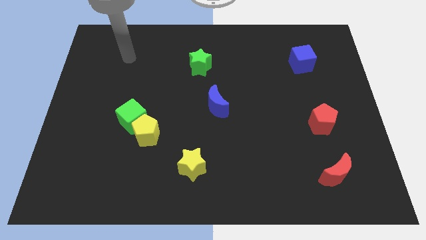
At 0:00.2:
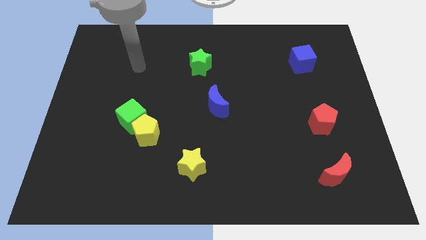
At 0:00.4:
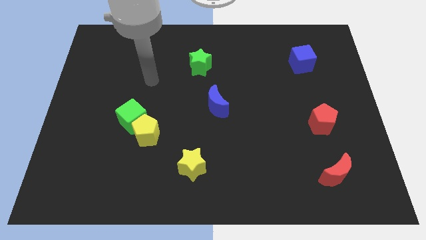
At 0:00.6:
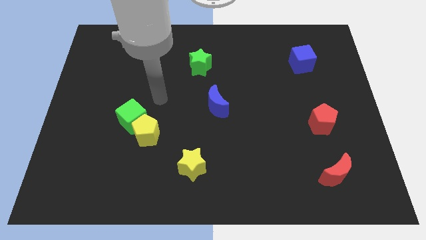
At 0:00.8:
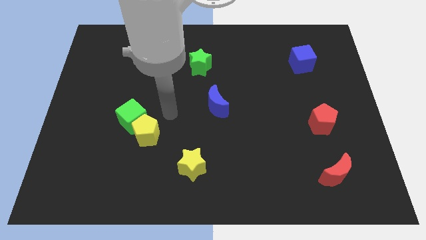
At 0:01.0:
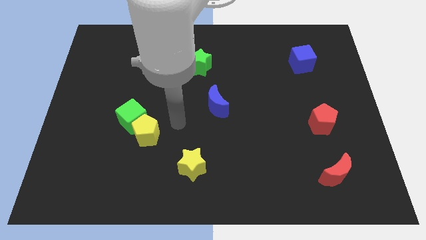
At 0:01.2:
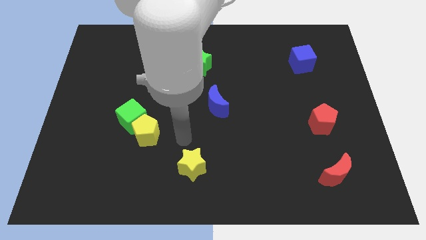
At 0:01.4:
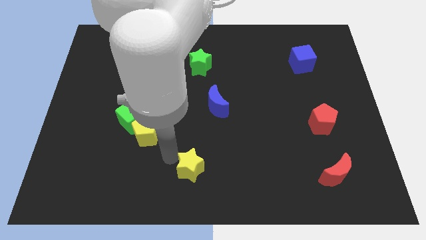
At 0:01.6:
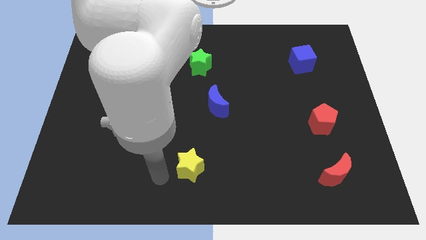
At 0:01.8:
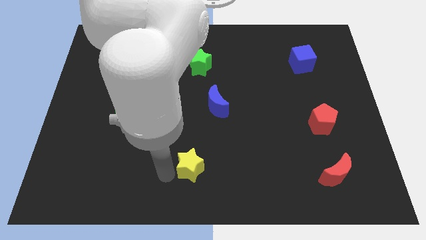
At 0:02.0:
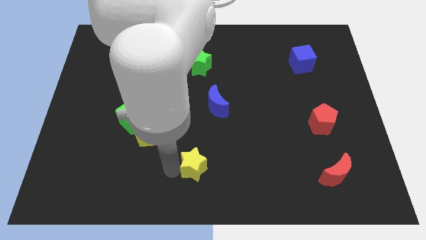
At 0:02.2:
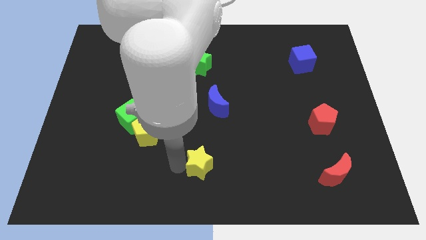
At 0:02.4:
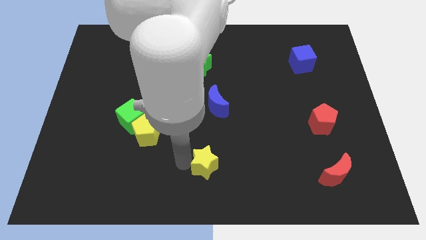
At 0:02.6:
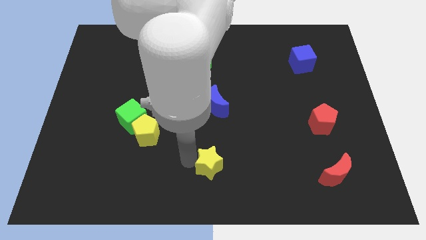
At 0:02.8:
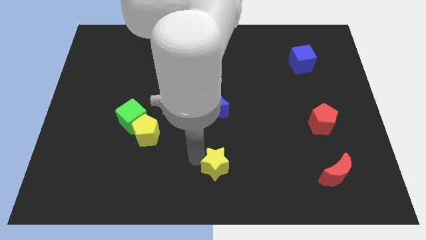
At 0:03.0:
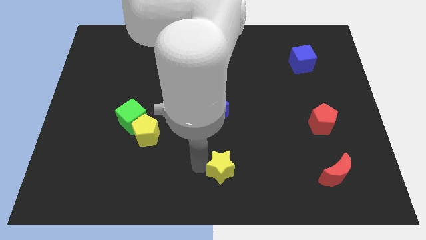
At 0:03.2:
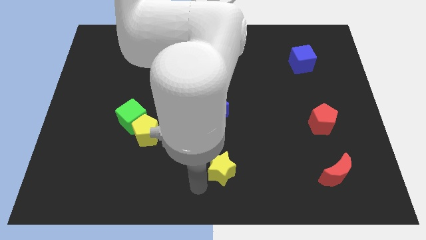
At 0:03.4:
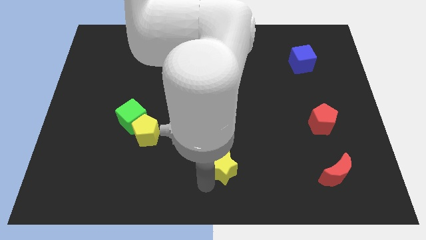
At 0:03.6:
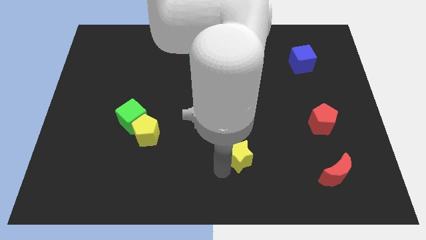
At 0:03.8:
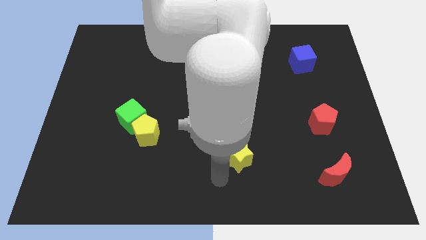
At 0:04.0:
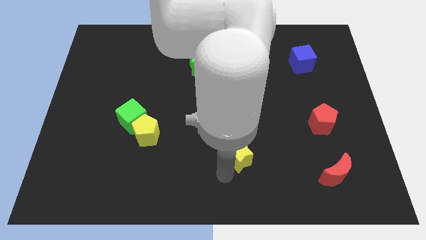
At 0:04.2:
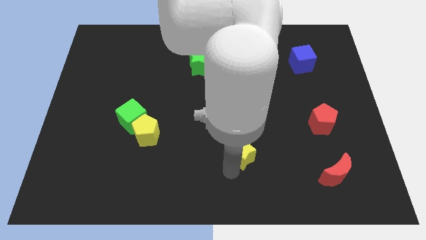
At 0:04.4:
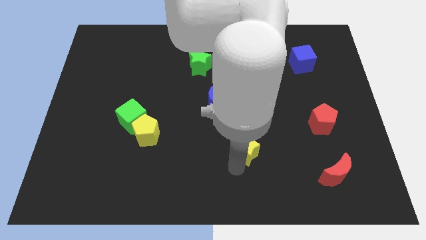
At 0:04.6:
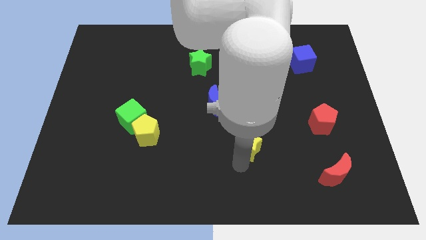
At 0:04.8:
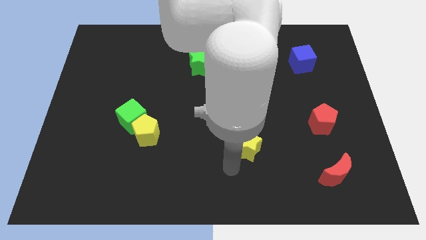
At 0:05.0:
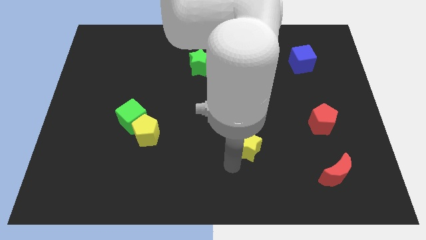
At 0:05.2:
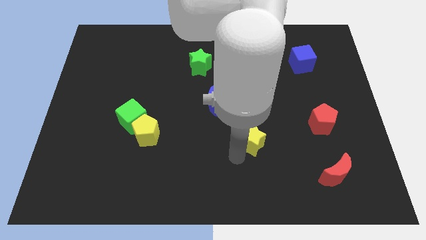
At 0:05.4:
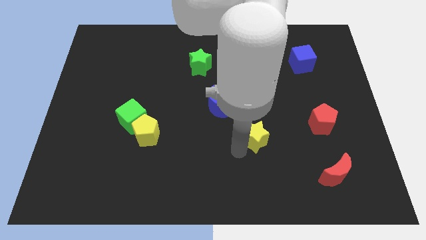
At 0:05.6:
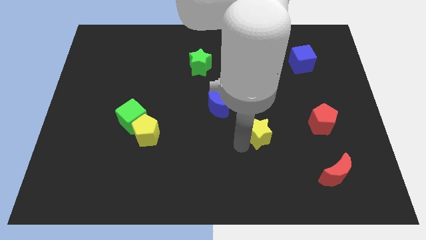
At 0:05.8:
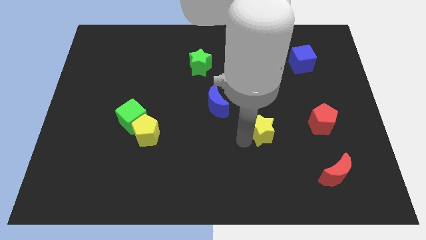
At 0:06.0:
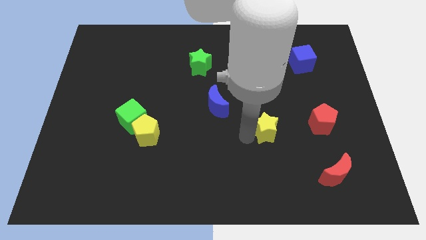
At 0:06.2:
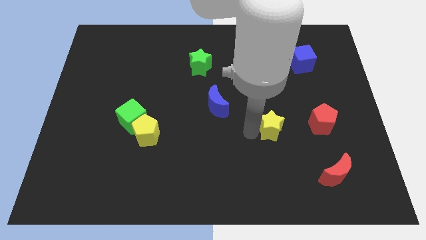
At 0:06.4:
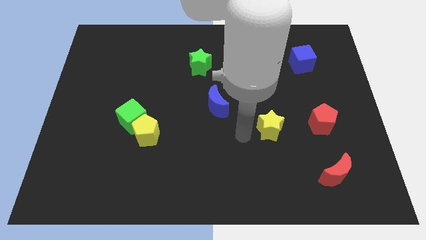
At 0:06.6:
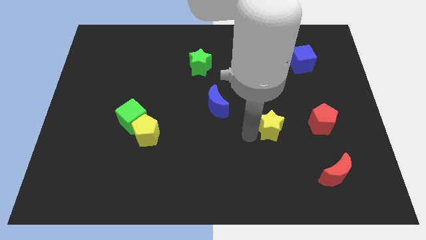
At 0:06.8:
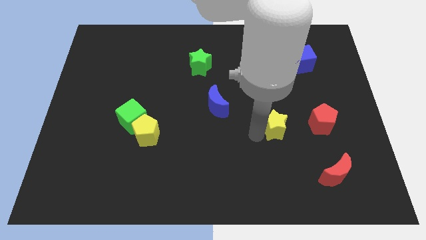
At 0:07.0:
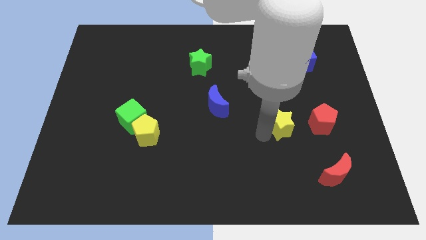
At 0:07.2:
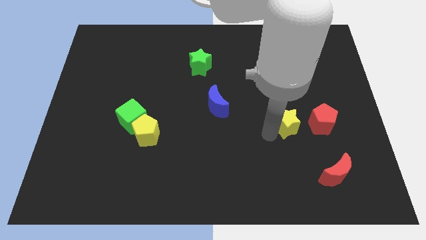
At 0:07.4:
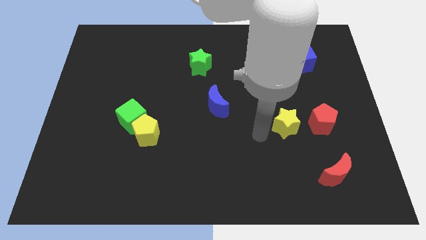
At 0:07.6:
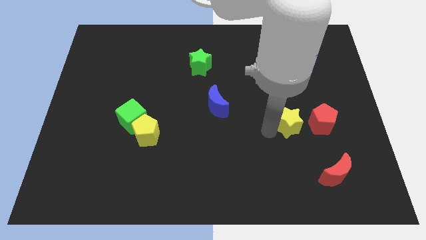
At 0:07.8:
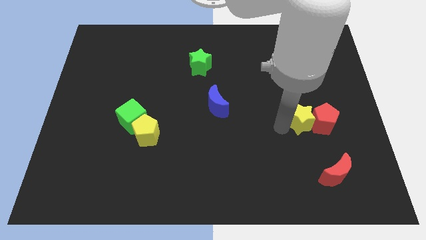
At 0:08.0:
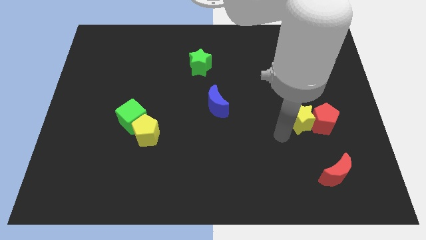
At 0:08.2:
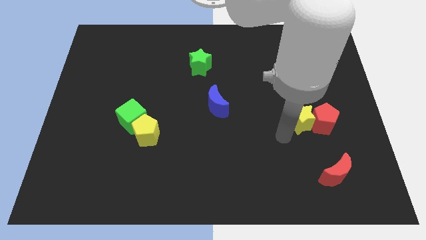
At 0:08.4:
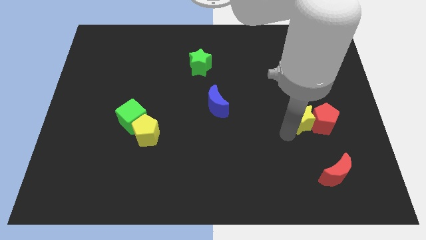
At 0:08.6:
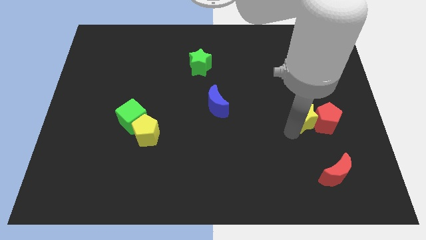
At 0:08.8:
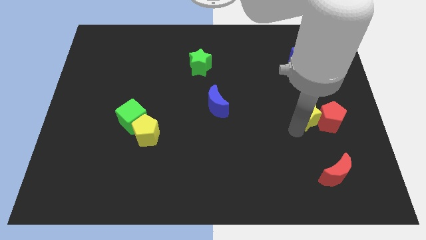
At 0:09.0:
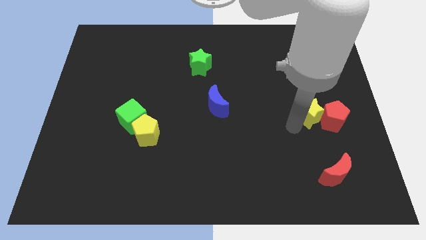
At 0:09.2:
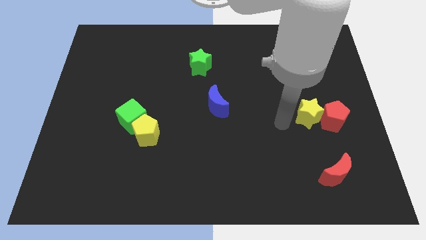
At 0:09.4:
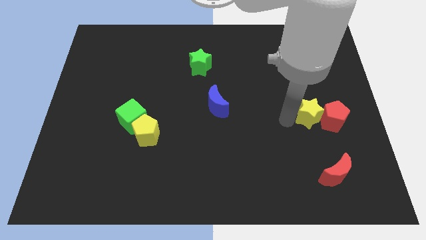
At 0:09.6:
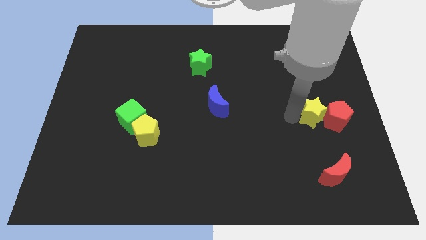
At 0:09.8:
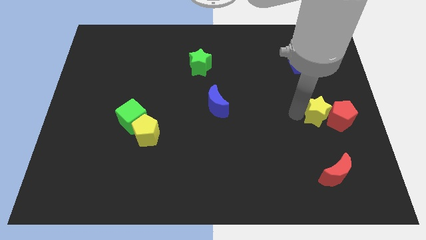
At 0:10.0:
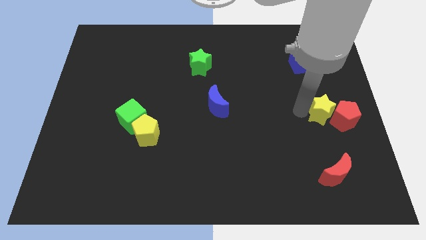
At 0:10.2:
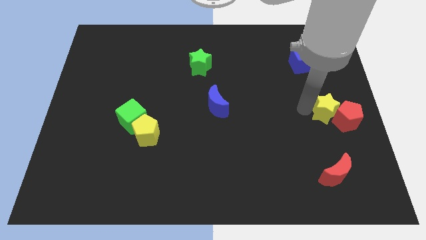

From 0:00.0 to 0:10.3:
slide the yellow star to the right side

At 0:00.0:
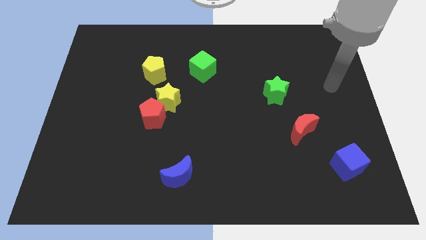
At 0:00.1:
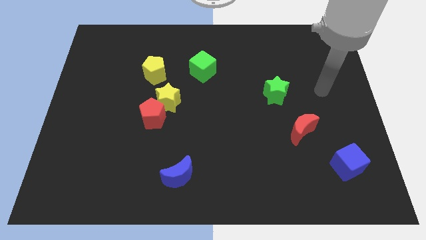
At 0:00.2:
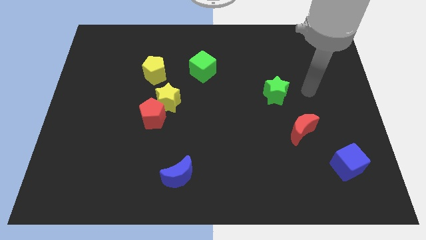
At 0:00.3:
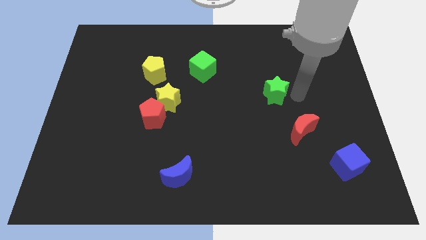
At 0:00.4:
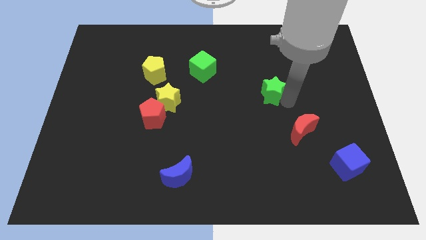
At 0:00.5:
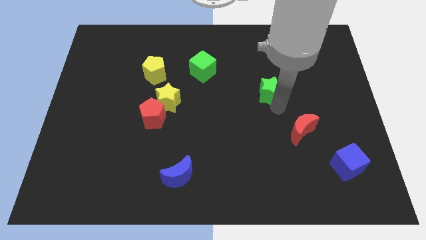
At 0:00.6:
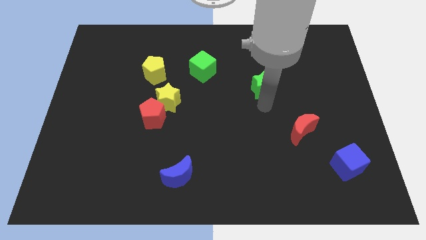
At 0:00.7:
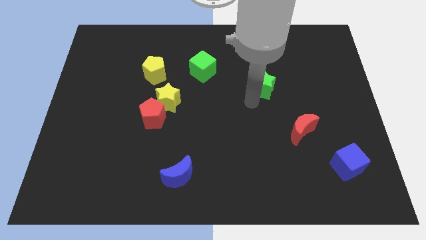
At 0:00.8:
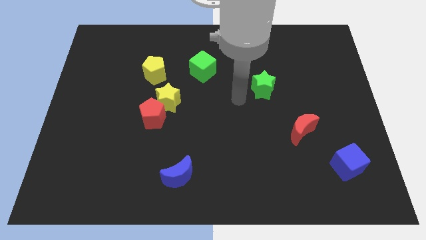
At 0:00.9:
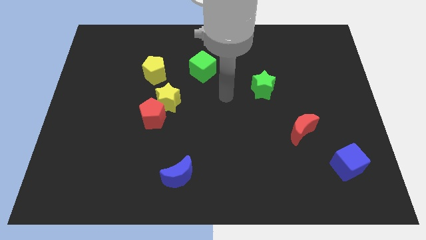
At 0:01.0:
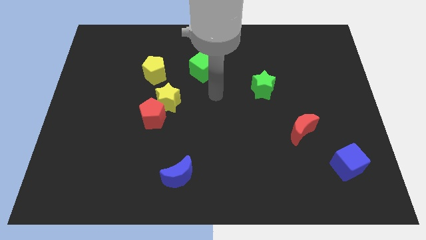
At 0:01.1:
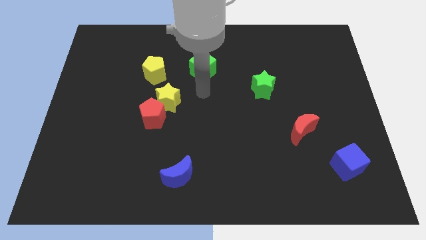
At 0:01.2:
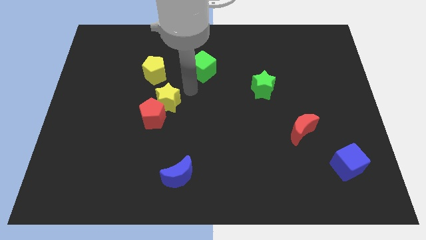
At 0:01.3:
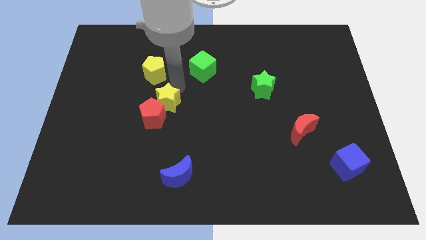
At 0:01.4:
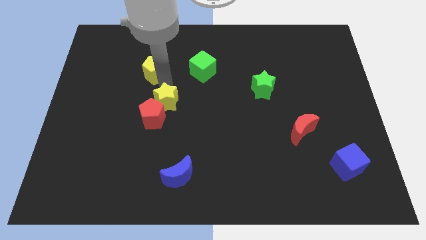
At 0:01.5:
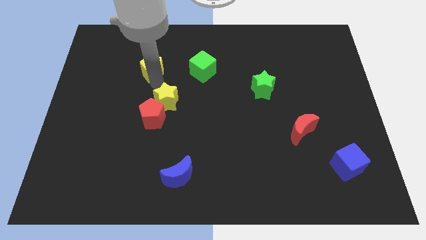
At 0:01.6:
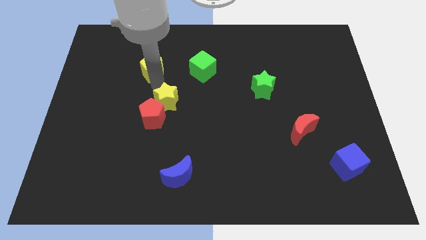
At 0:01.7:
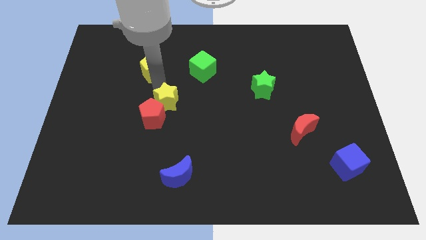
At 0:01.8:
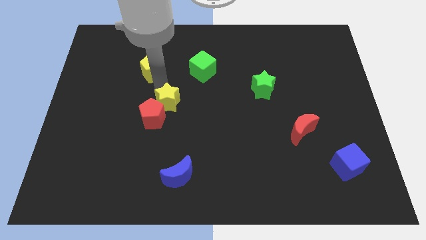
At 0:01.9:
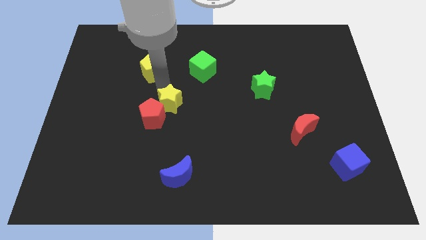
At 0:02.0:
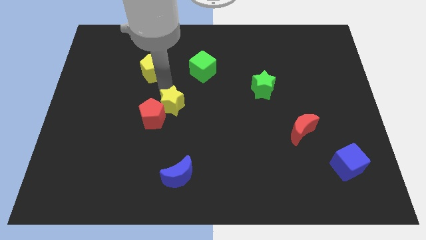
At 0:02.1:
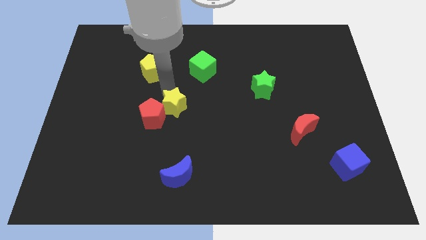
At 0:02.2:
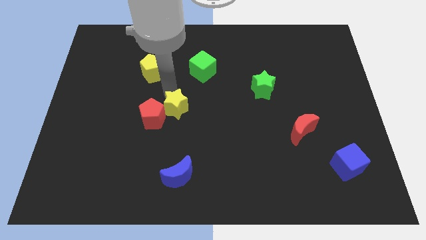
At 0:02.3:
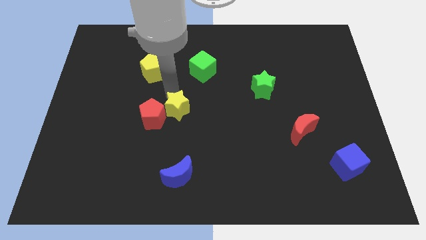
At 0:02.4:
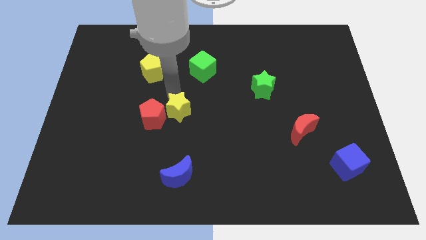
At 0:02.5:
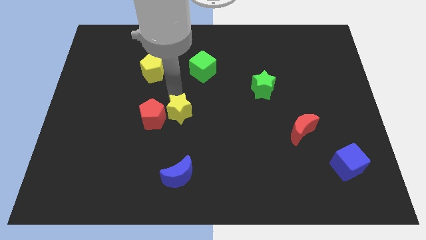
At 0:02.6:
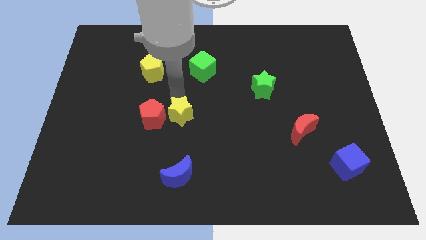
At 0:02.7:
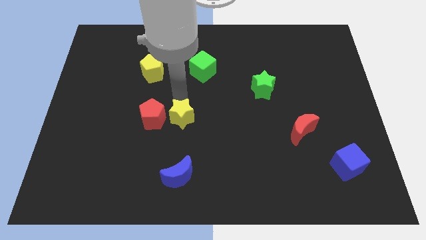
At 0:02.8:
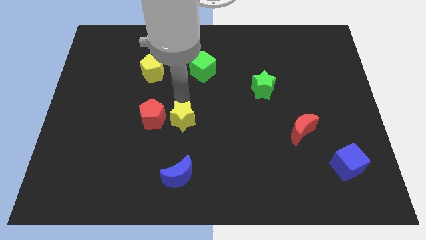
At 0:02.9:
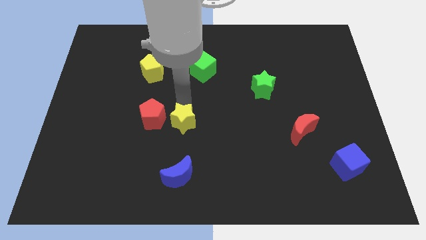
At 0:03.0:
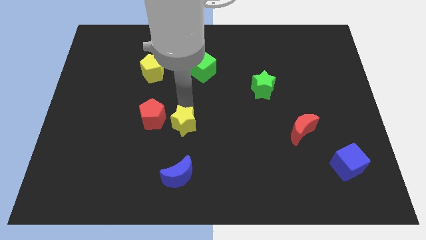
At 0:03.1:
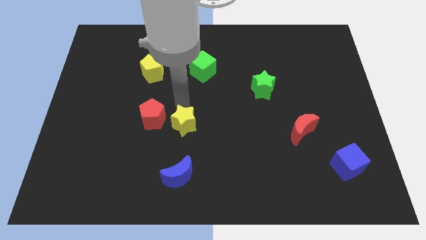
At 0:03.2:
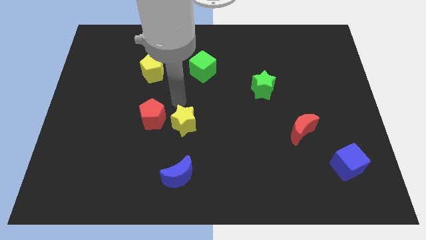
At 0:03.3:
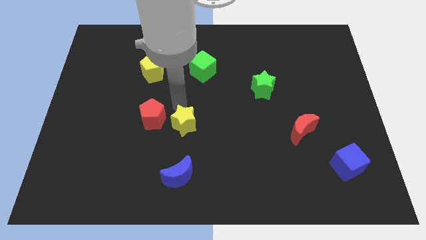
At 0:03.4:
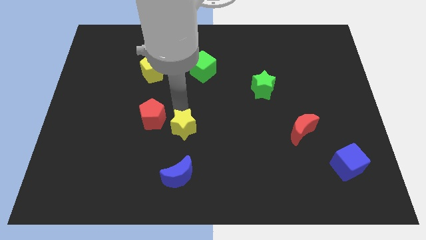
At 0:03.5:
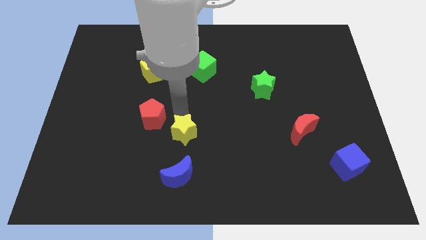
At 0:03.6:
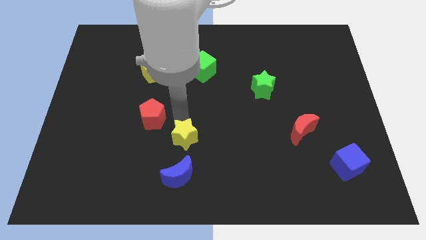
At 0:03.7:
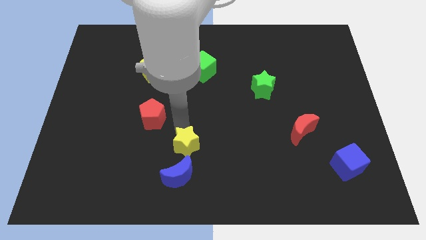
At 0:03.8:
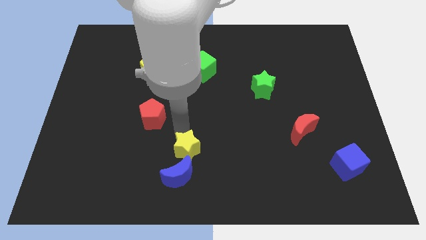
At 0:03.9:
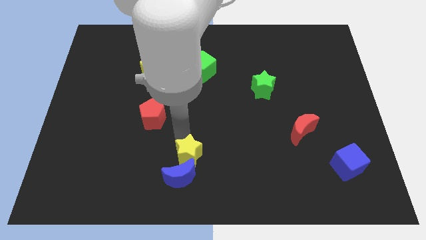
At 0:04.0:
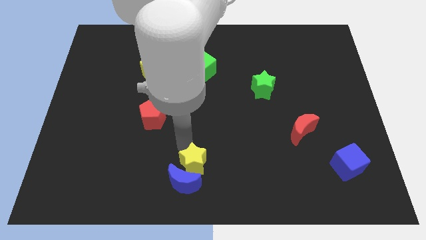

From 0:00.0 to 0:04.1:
slide the yellow star to the bottom
